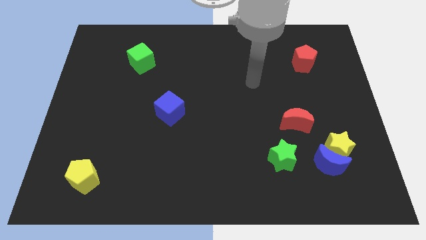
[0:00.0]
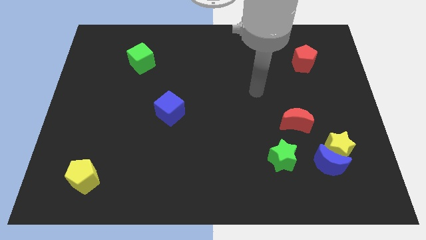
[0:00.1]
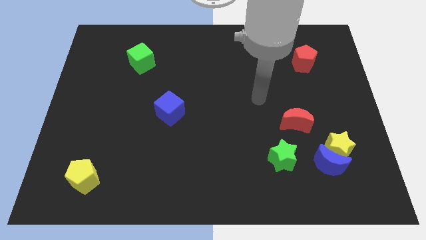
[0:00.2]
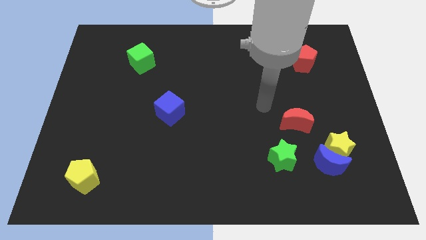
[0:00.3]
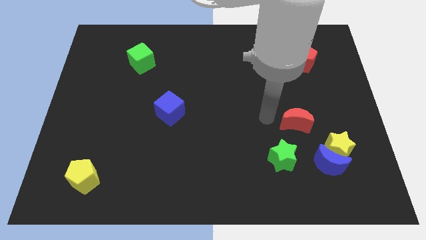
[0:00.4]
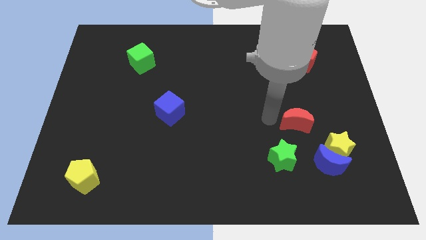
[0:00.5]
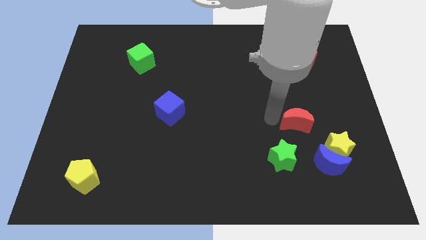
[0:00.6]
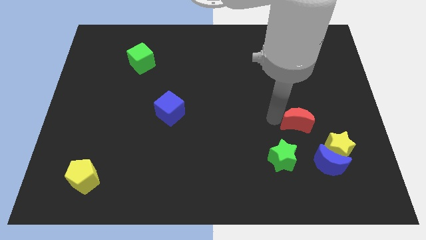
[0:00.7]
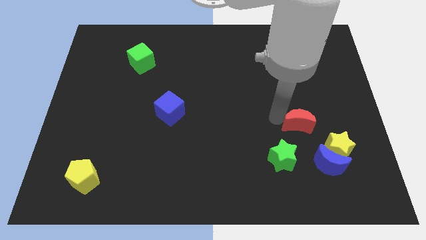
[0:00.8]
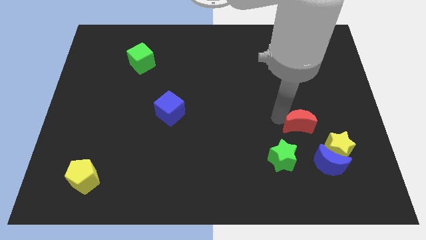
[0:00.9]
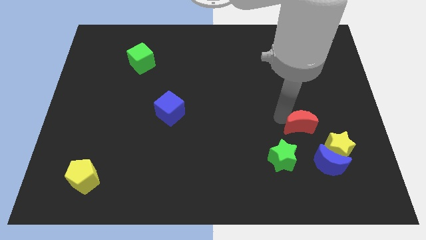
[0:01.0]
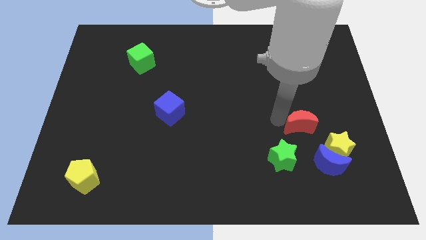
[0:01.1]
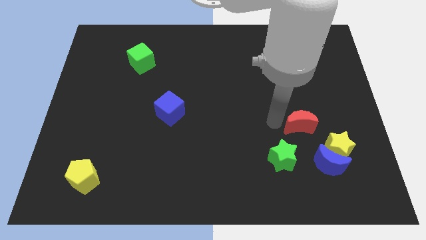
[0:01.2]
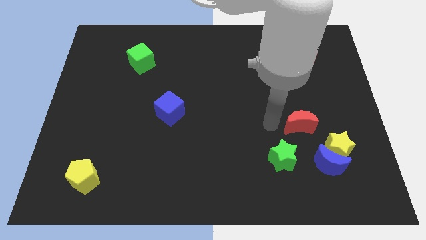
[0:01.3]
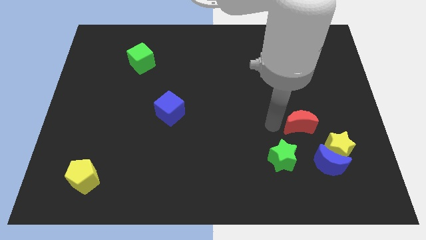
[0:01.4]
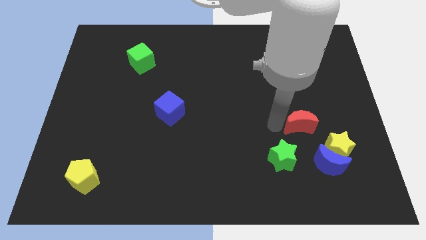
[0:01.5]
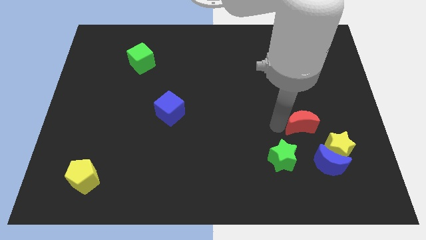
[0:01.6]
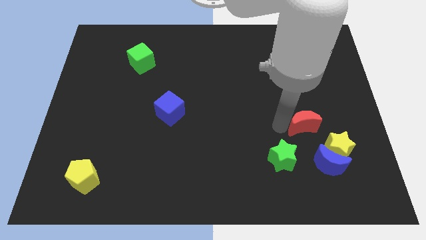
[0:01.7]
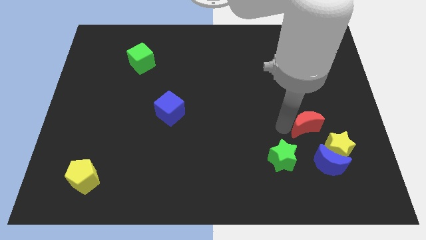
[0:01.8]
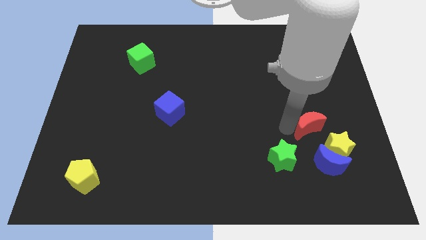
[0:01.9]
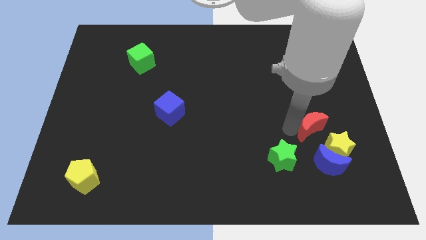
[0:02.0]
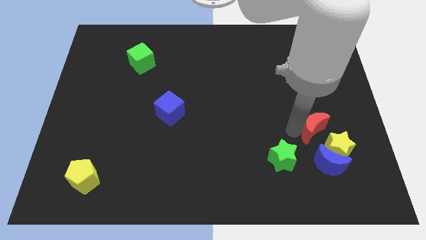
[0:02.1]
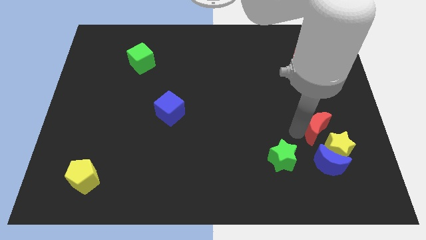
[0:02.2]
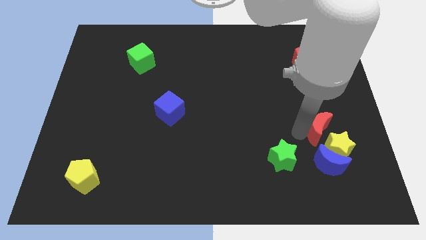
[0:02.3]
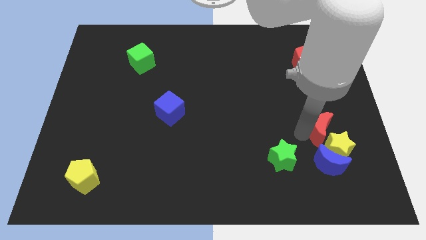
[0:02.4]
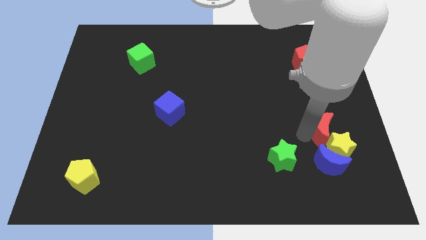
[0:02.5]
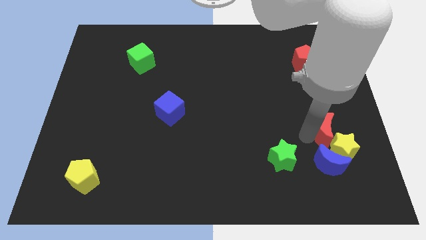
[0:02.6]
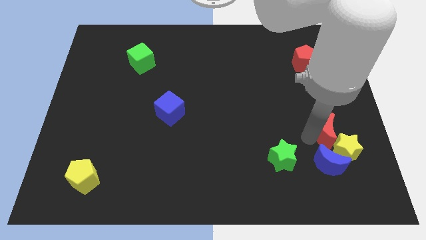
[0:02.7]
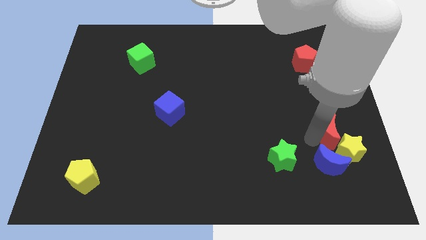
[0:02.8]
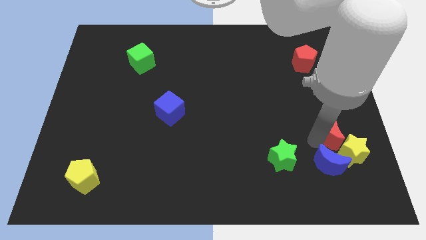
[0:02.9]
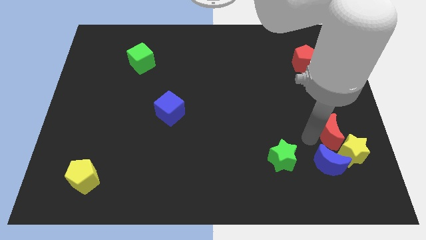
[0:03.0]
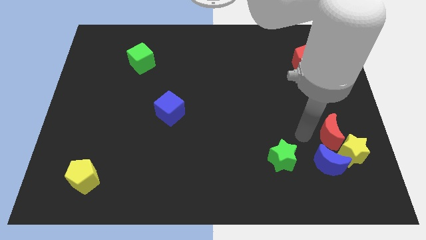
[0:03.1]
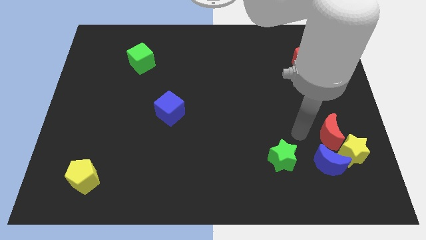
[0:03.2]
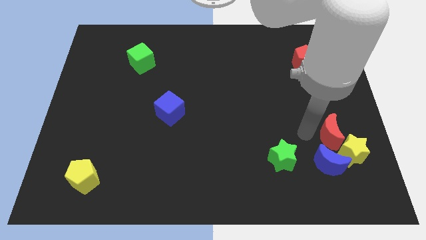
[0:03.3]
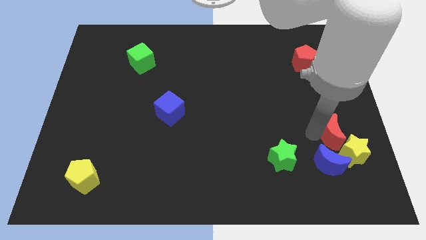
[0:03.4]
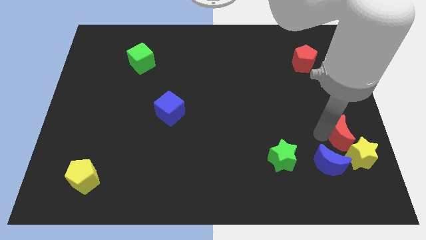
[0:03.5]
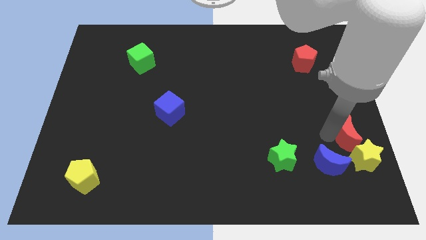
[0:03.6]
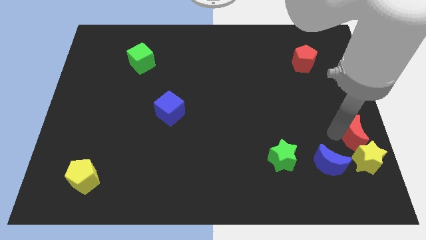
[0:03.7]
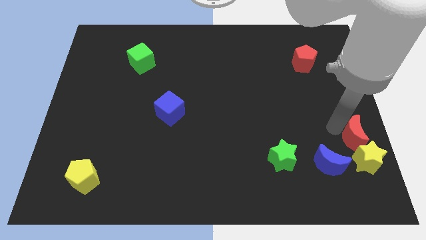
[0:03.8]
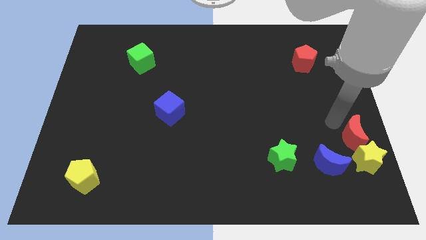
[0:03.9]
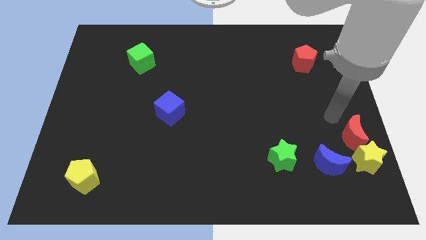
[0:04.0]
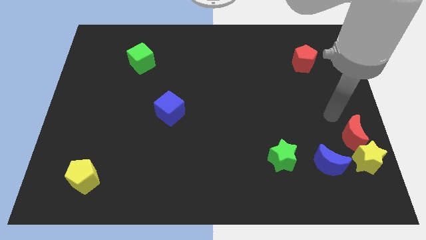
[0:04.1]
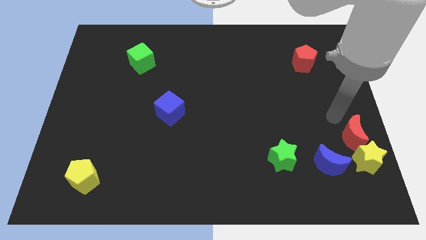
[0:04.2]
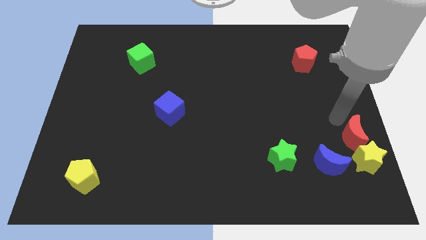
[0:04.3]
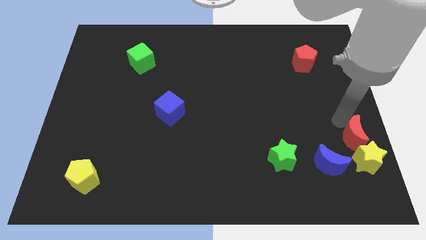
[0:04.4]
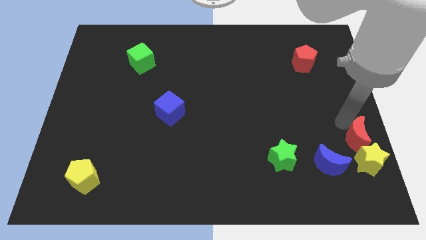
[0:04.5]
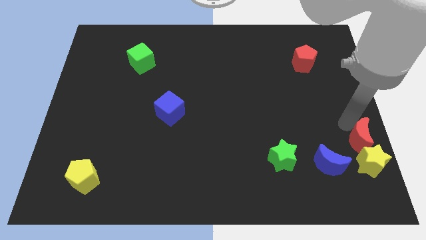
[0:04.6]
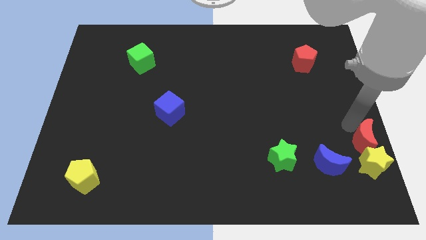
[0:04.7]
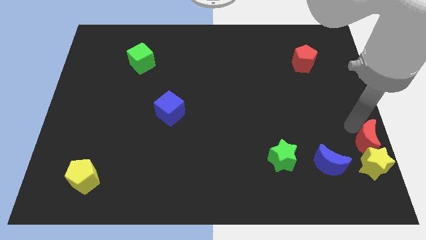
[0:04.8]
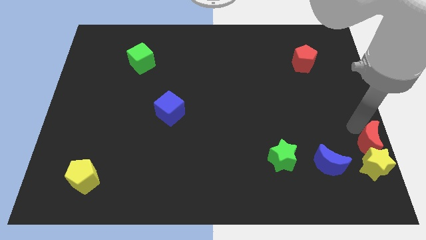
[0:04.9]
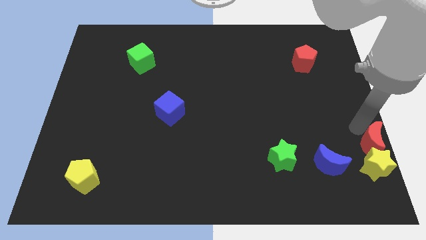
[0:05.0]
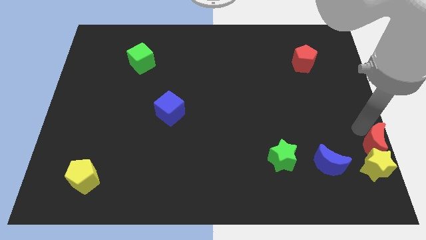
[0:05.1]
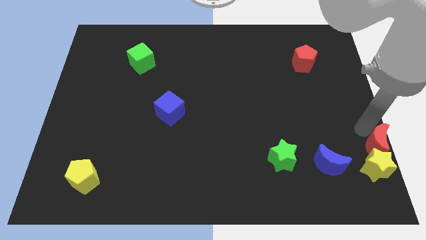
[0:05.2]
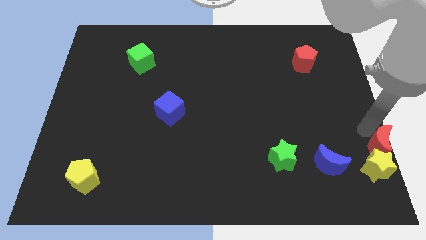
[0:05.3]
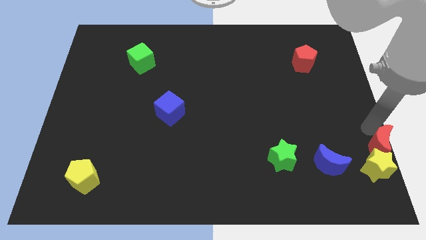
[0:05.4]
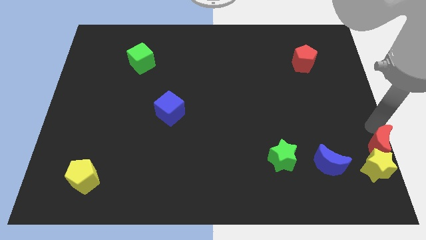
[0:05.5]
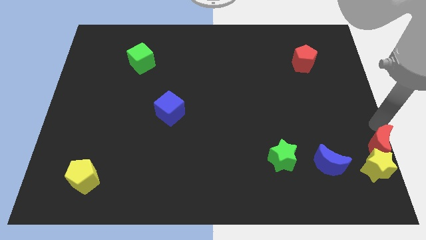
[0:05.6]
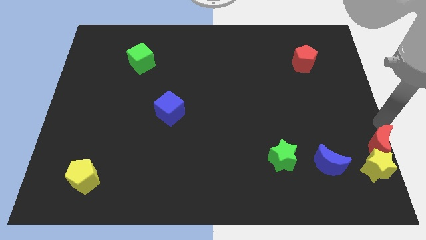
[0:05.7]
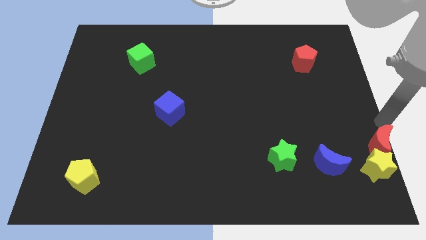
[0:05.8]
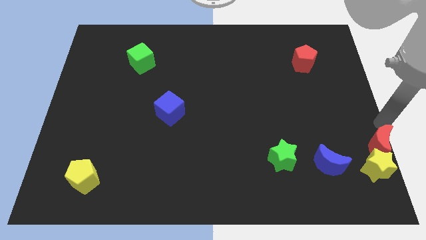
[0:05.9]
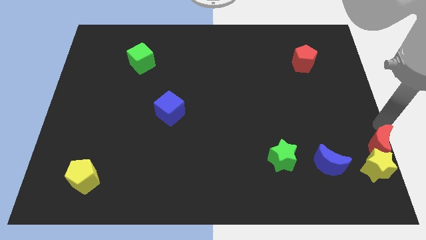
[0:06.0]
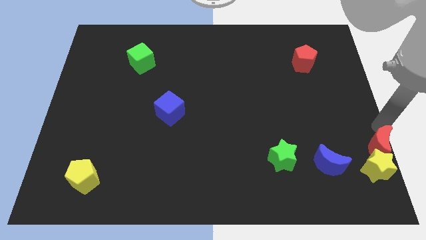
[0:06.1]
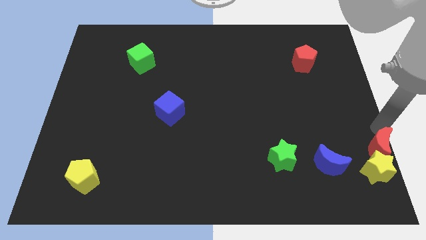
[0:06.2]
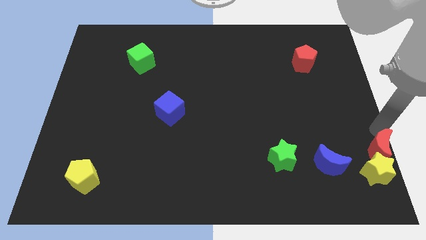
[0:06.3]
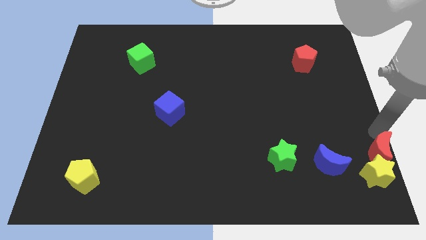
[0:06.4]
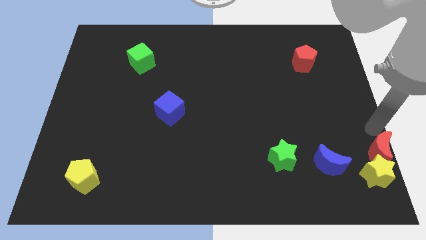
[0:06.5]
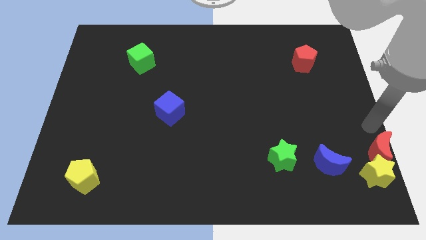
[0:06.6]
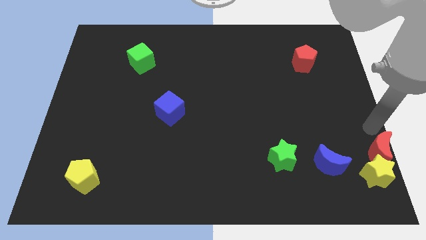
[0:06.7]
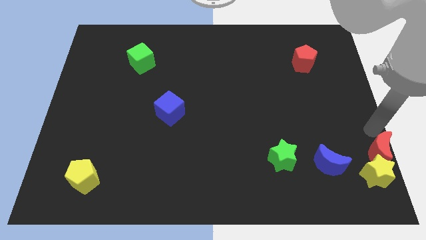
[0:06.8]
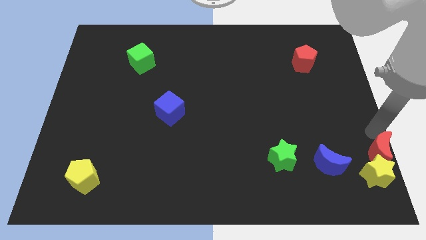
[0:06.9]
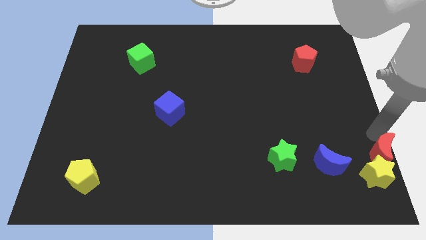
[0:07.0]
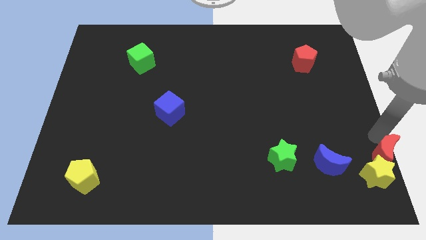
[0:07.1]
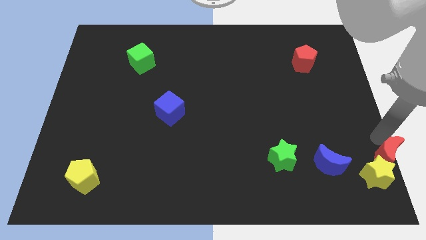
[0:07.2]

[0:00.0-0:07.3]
put the red moon to the bottom right of the board
